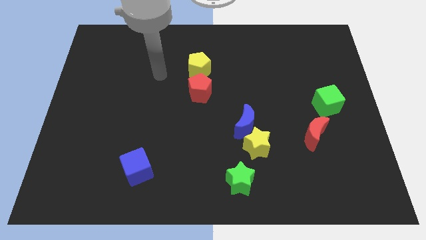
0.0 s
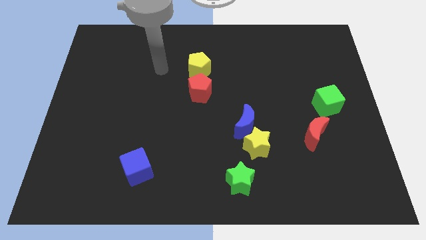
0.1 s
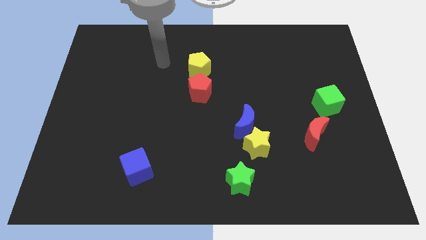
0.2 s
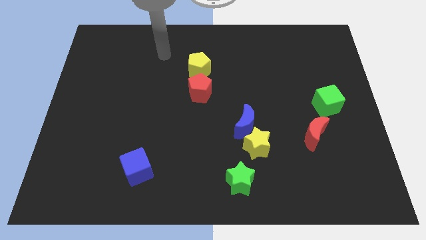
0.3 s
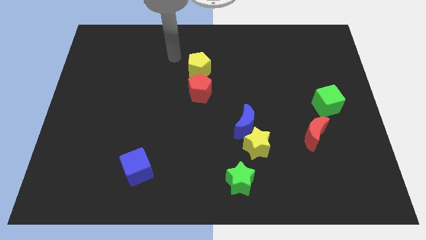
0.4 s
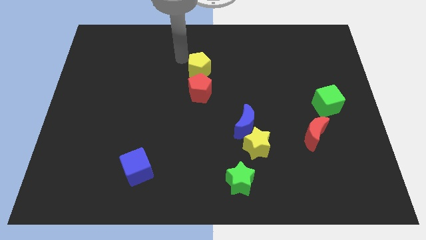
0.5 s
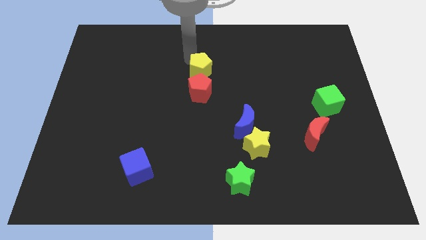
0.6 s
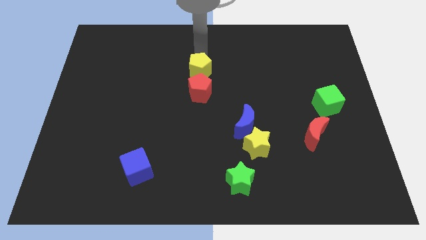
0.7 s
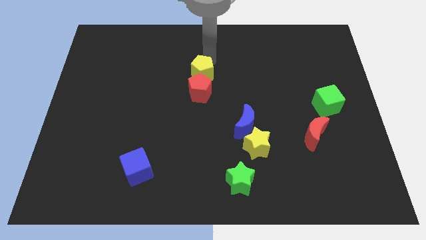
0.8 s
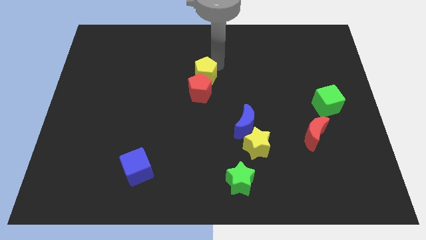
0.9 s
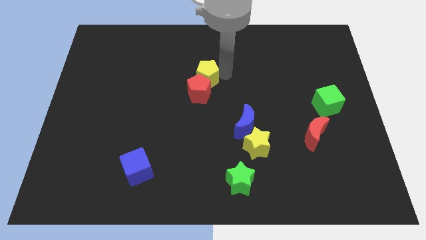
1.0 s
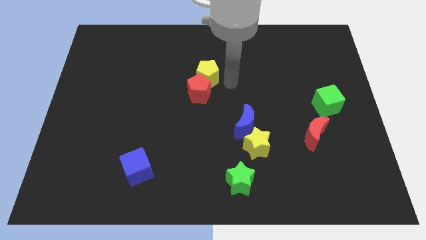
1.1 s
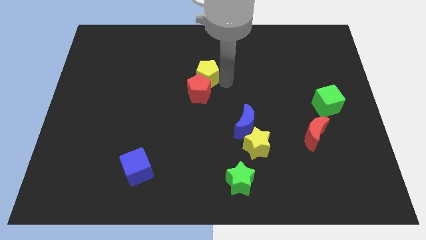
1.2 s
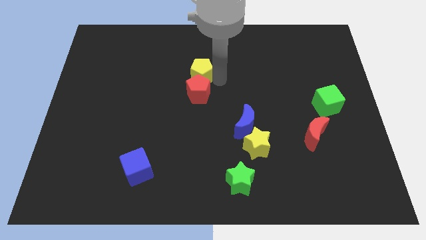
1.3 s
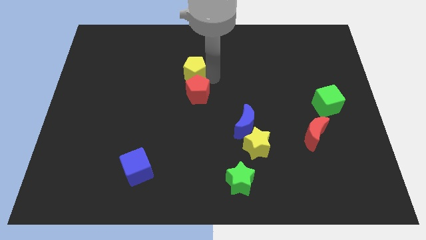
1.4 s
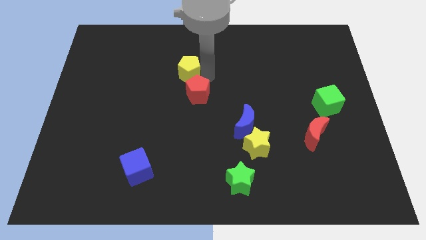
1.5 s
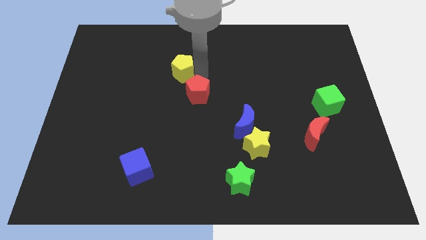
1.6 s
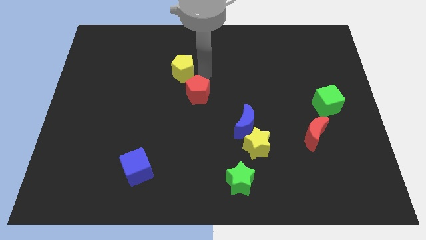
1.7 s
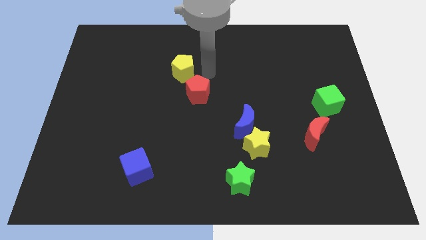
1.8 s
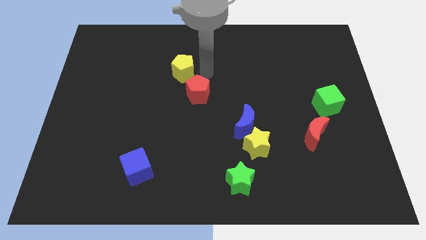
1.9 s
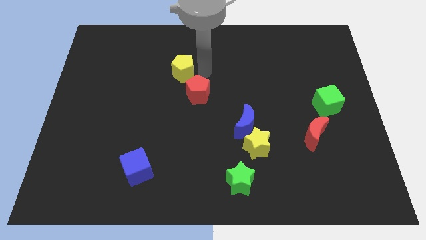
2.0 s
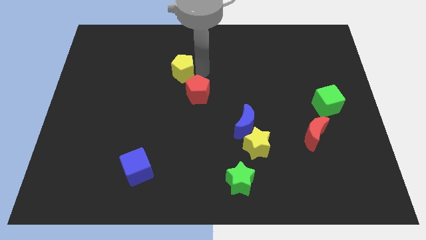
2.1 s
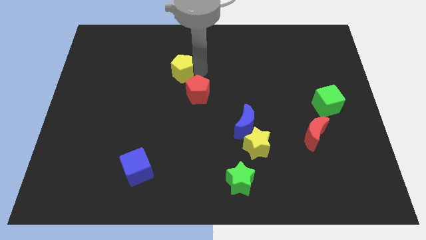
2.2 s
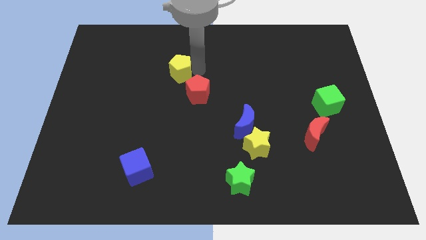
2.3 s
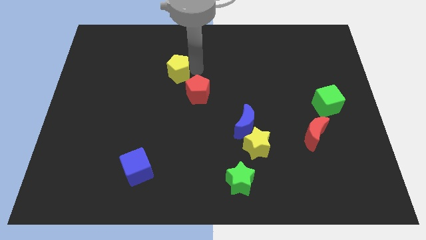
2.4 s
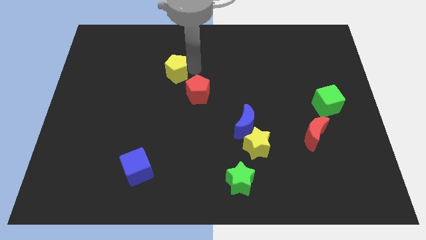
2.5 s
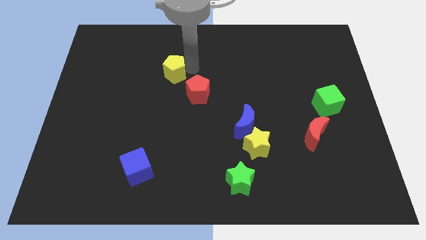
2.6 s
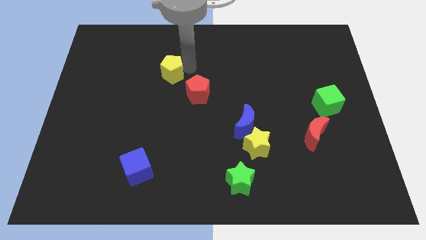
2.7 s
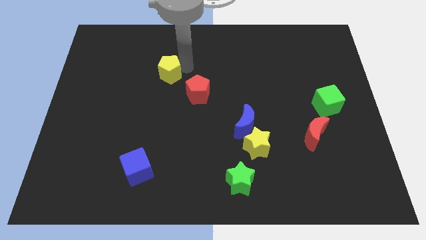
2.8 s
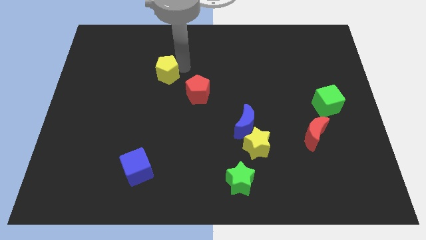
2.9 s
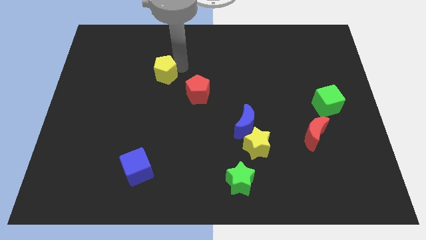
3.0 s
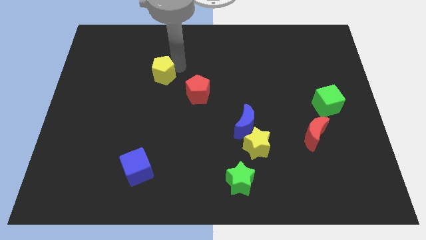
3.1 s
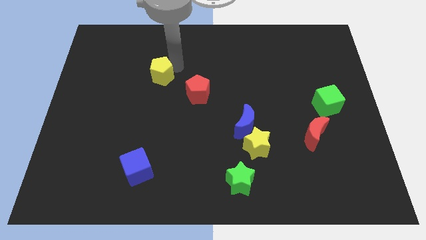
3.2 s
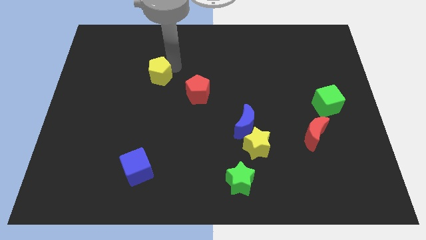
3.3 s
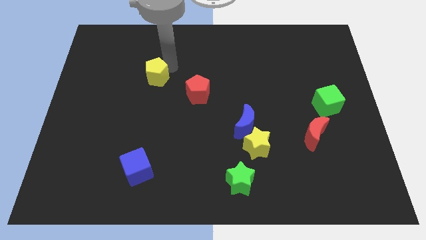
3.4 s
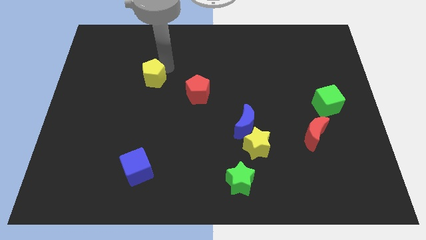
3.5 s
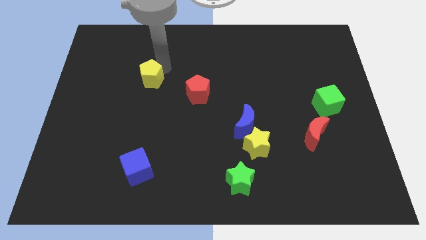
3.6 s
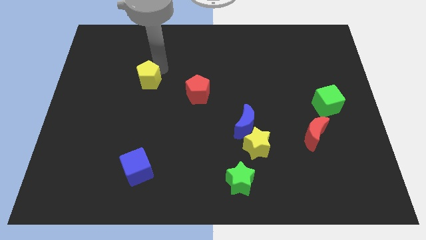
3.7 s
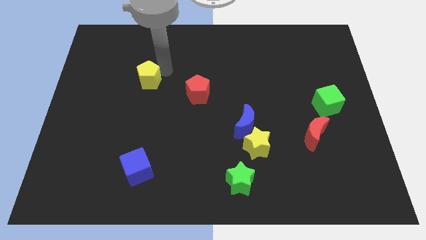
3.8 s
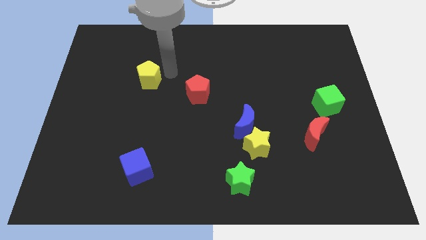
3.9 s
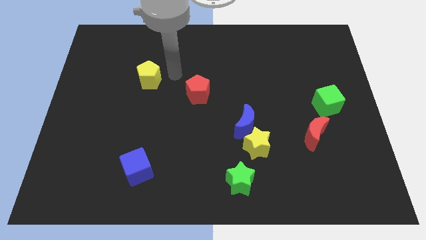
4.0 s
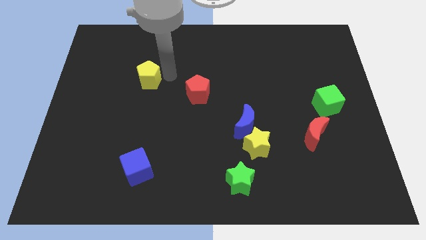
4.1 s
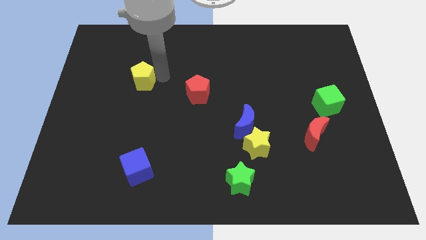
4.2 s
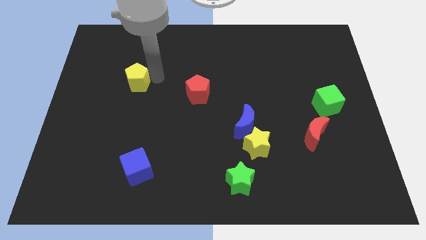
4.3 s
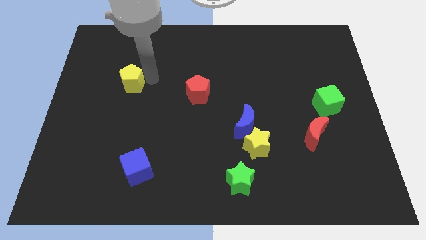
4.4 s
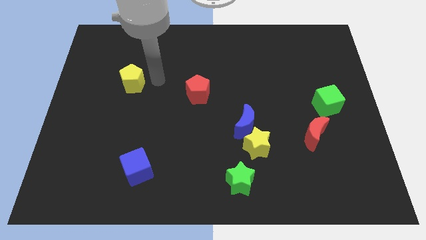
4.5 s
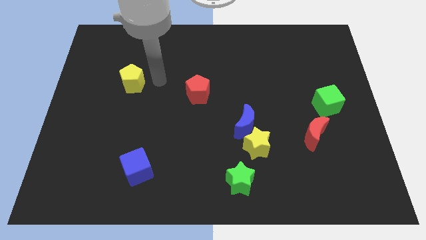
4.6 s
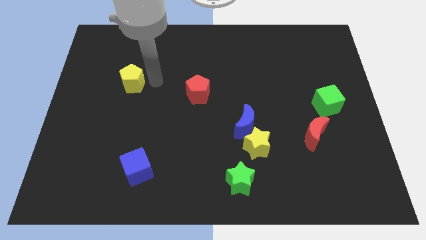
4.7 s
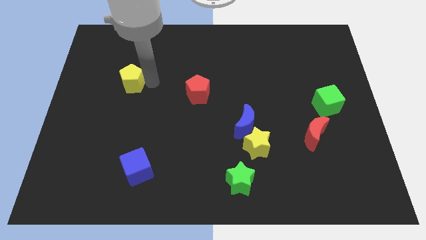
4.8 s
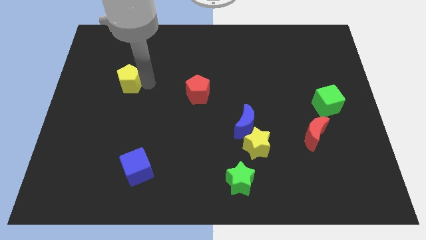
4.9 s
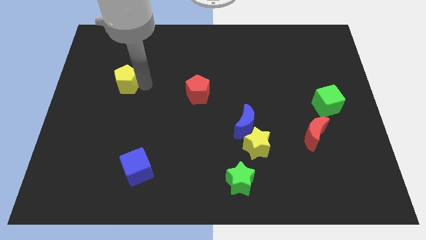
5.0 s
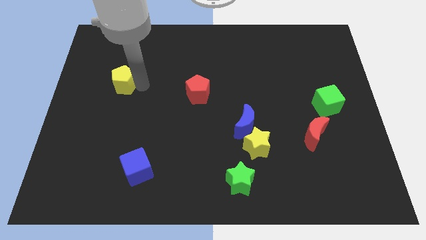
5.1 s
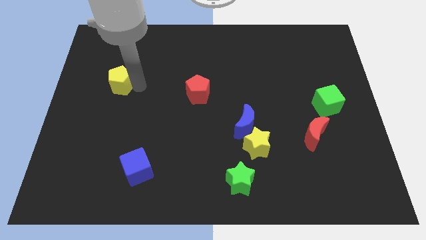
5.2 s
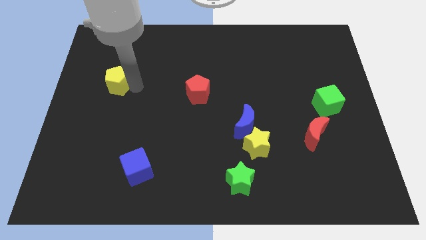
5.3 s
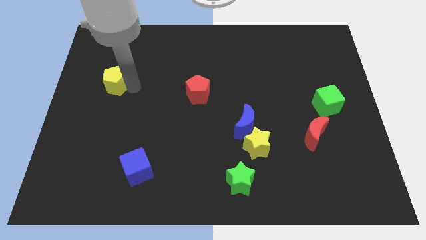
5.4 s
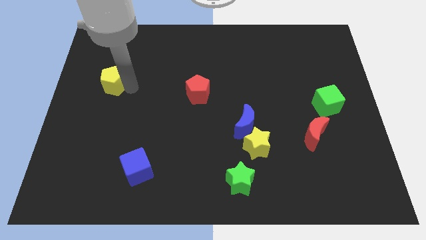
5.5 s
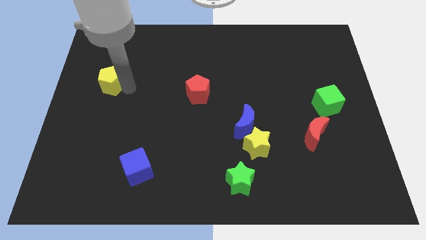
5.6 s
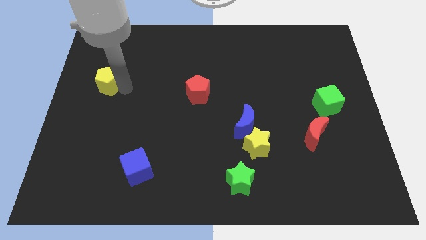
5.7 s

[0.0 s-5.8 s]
push the yellow pentagon to the center left

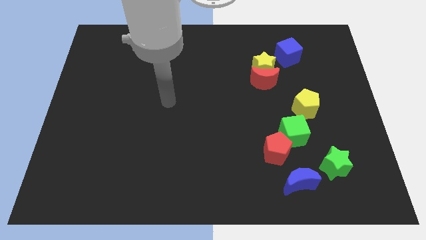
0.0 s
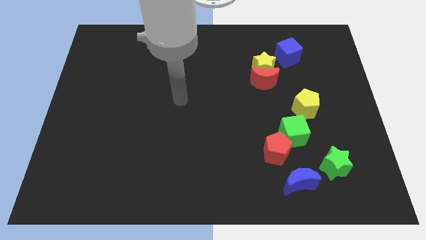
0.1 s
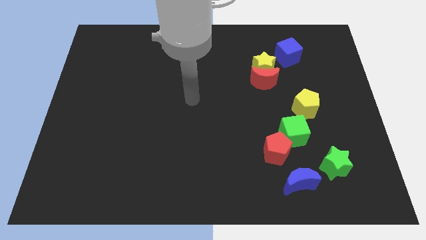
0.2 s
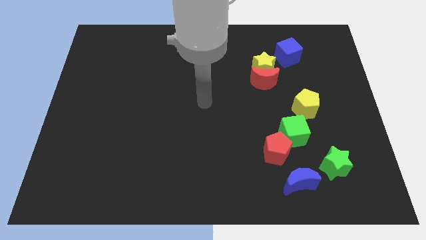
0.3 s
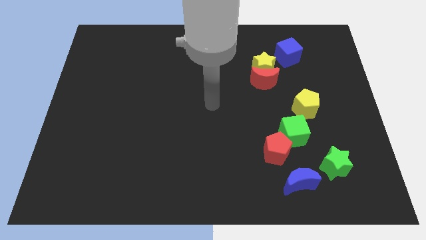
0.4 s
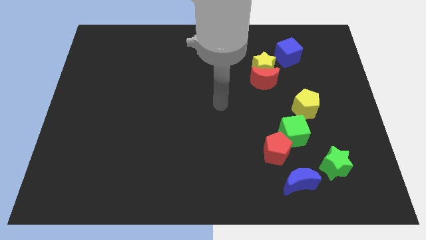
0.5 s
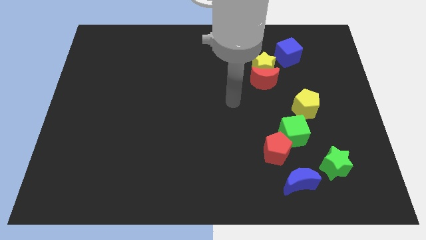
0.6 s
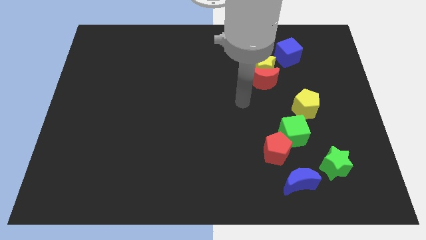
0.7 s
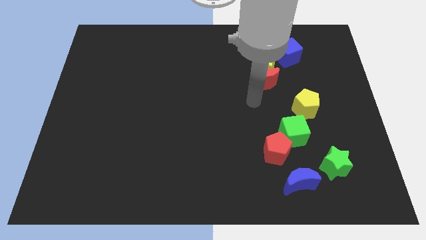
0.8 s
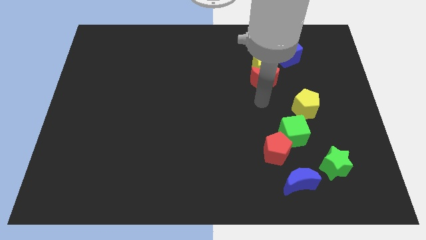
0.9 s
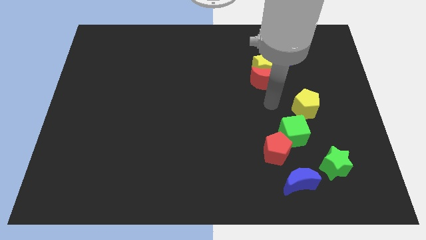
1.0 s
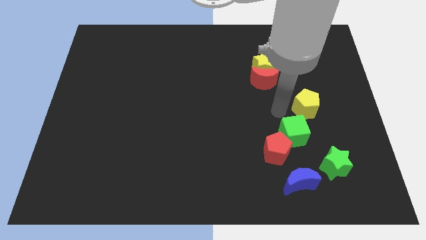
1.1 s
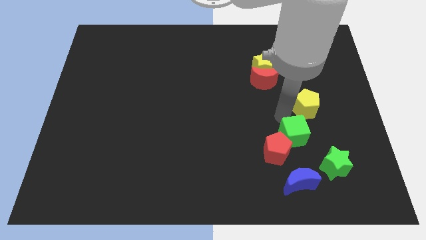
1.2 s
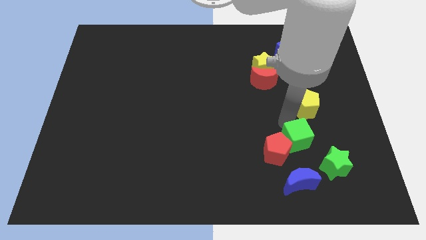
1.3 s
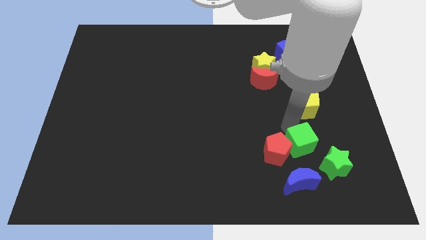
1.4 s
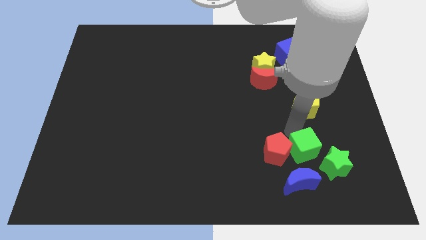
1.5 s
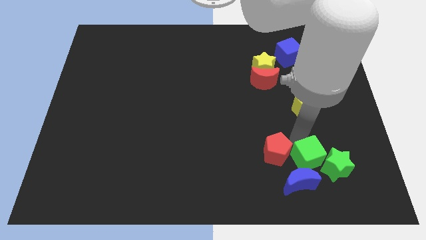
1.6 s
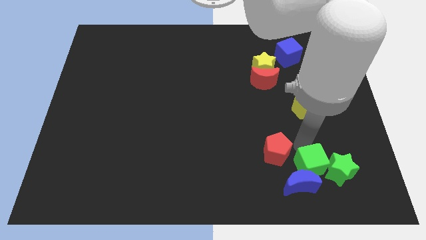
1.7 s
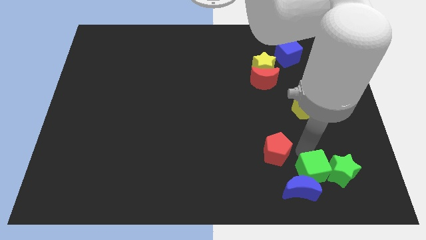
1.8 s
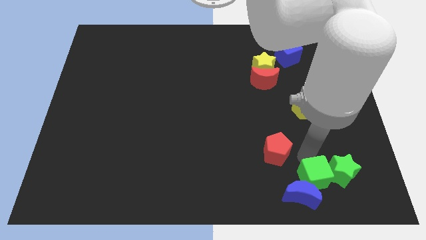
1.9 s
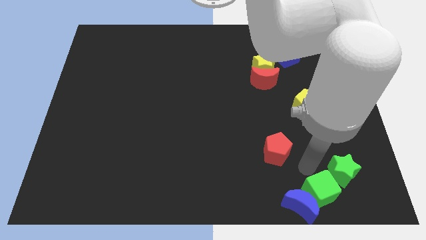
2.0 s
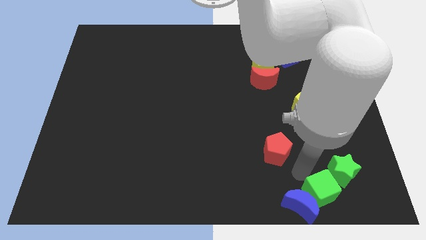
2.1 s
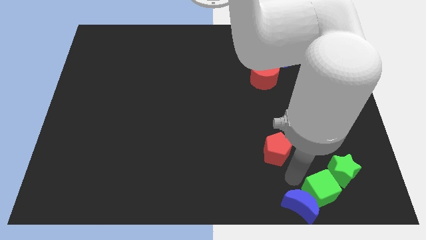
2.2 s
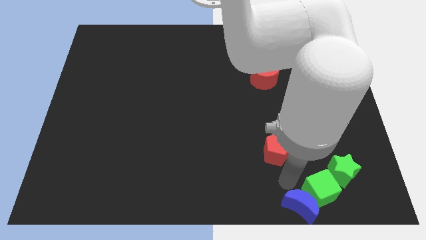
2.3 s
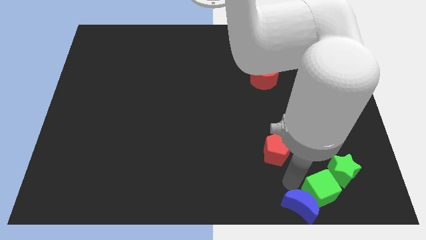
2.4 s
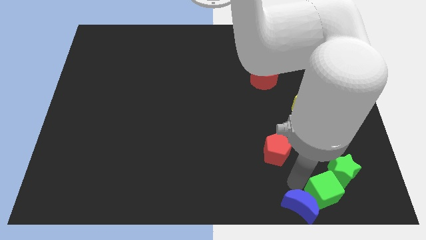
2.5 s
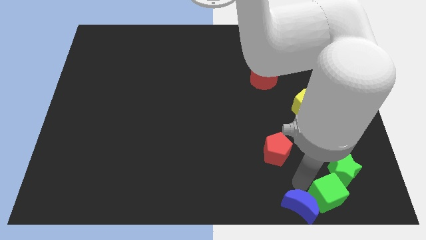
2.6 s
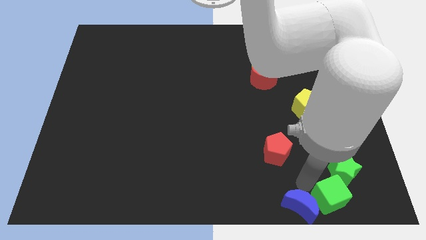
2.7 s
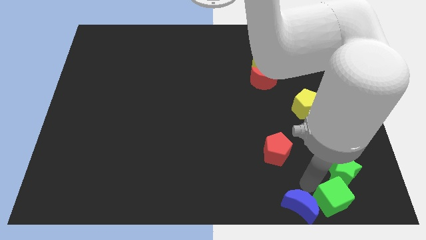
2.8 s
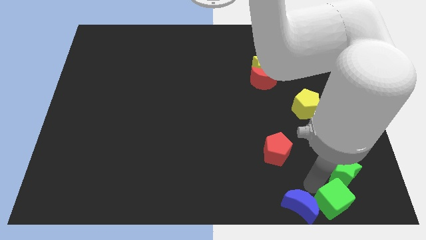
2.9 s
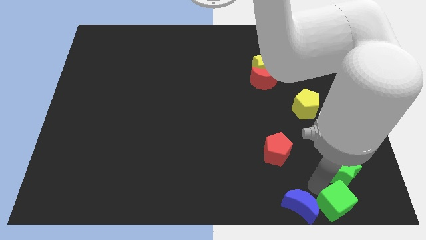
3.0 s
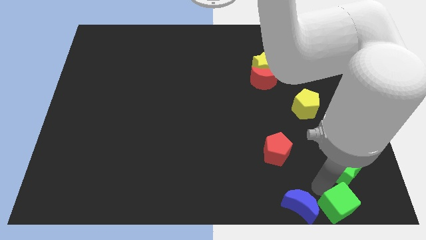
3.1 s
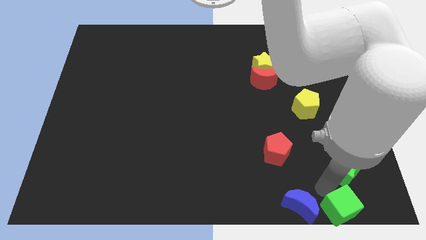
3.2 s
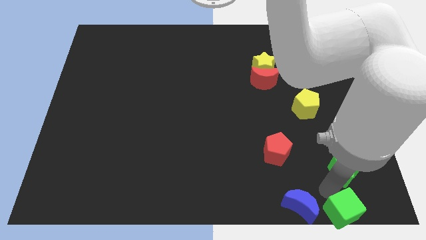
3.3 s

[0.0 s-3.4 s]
slide the green cube to the bottom right of the board
